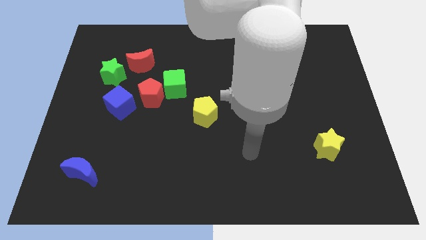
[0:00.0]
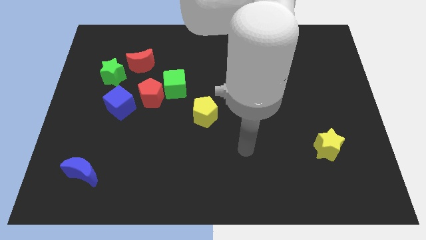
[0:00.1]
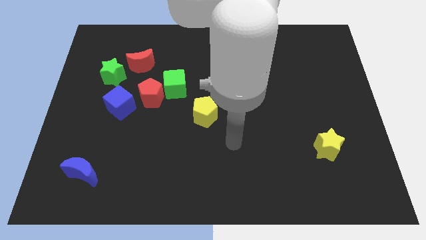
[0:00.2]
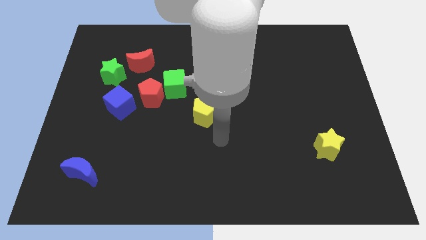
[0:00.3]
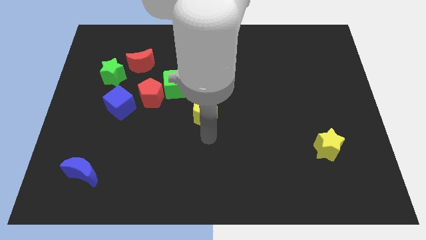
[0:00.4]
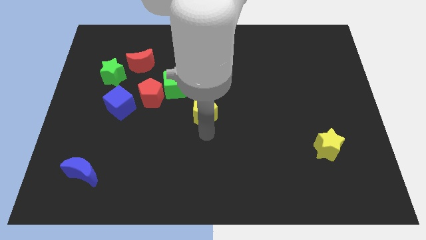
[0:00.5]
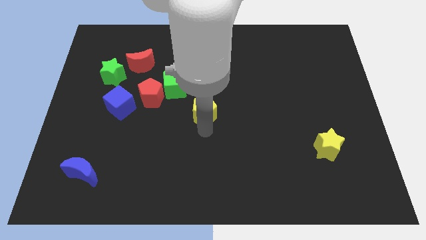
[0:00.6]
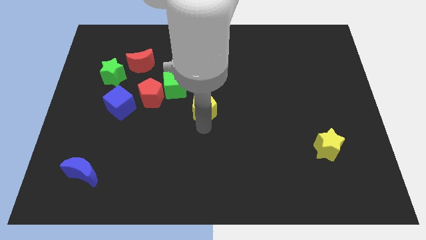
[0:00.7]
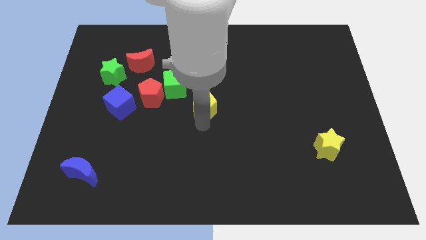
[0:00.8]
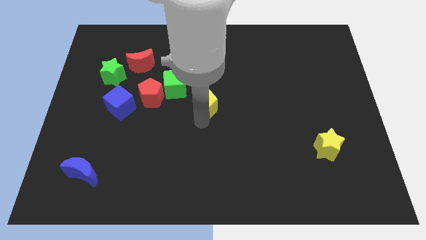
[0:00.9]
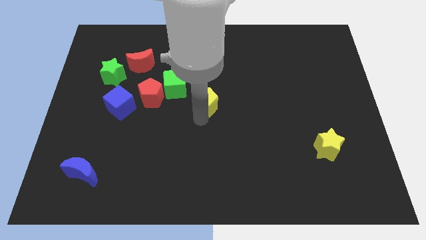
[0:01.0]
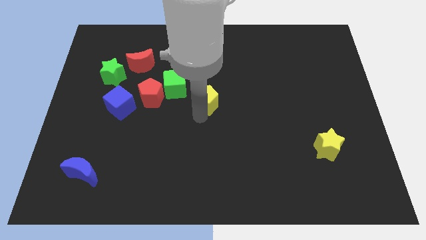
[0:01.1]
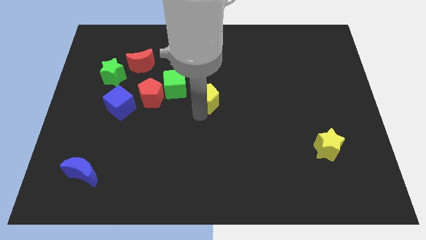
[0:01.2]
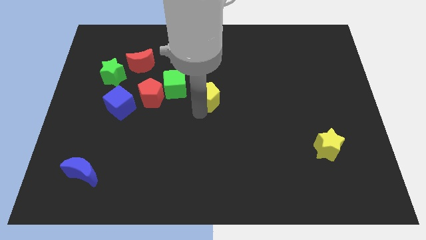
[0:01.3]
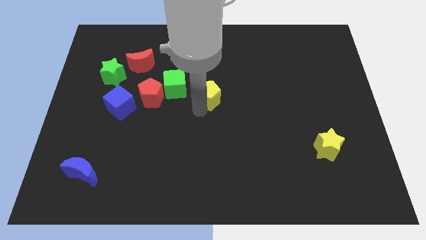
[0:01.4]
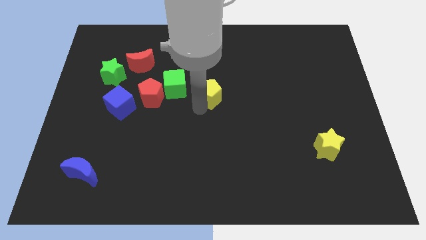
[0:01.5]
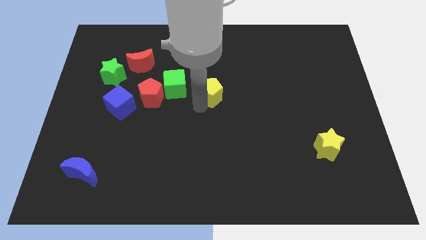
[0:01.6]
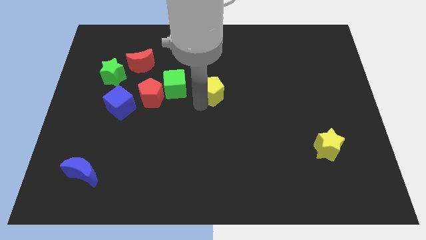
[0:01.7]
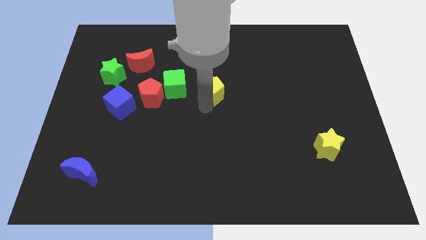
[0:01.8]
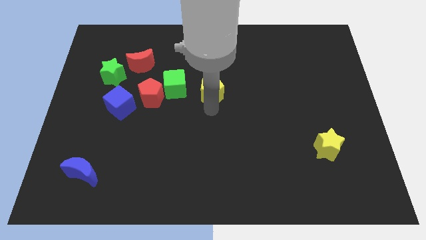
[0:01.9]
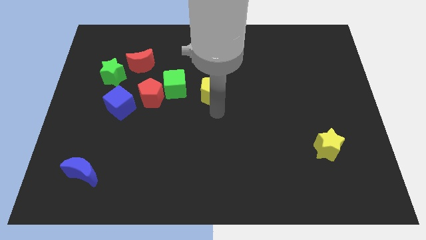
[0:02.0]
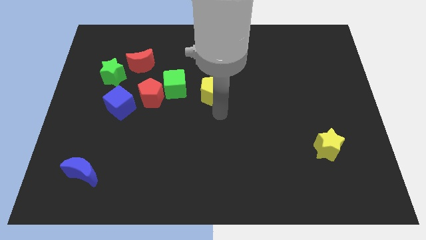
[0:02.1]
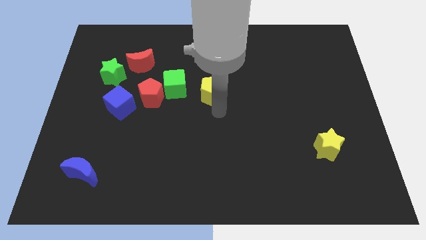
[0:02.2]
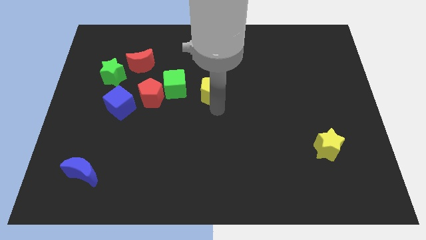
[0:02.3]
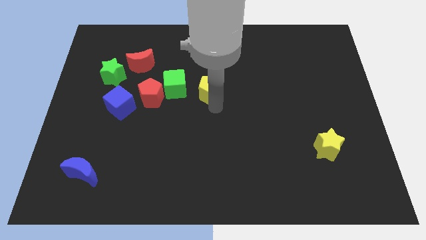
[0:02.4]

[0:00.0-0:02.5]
push the yellow pentagon slightly up

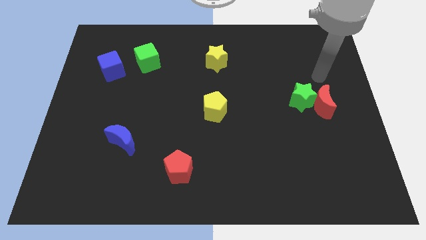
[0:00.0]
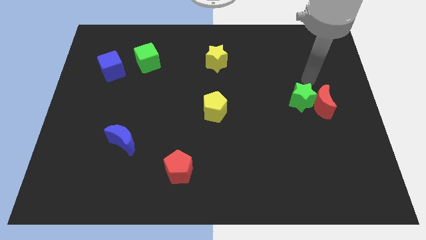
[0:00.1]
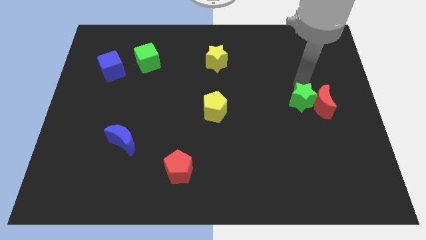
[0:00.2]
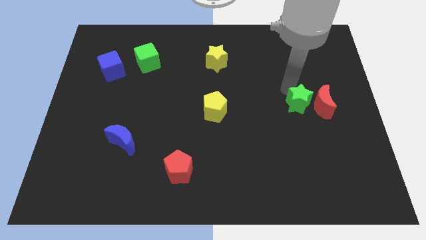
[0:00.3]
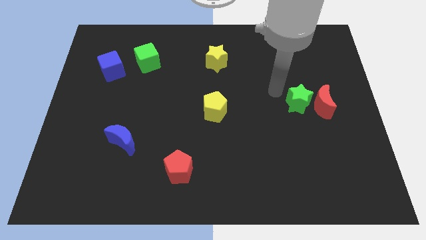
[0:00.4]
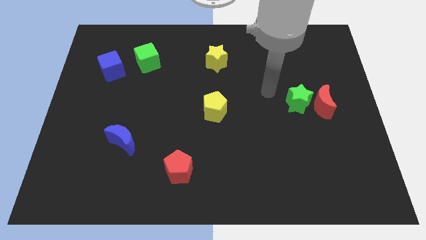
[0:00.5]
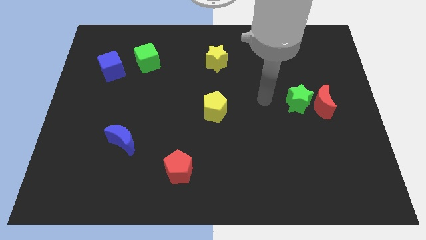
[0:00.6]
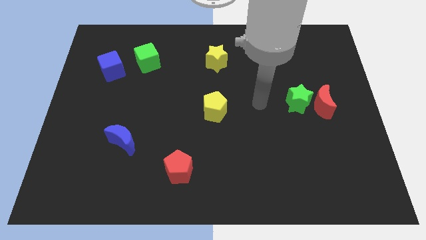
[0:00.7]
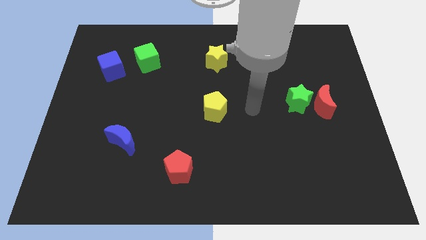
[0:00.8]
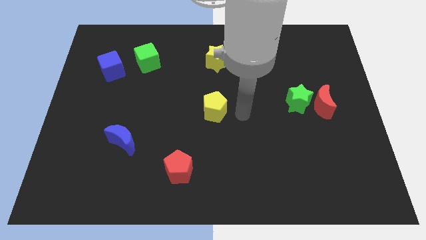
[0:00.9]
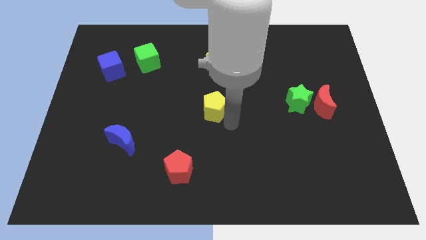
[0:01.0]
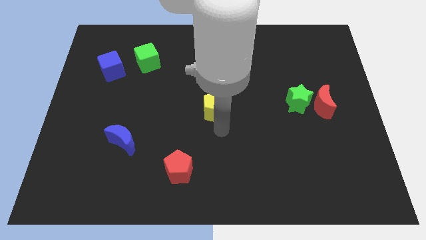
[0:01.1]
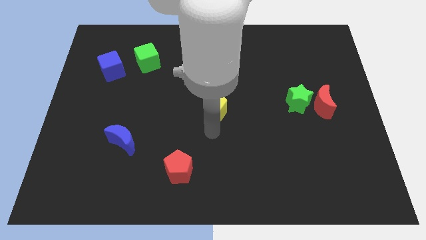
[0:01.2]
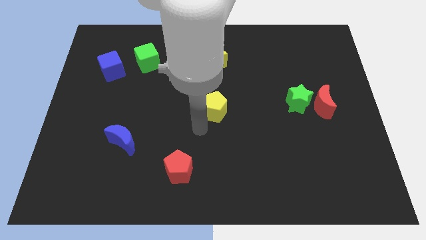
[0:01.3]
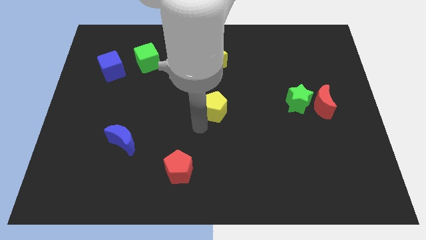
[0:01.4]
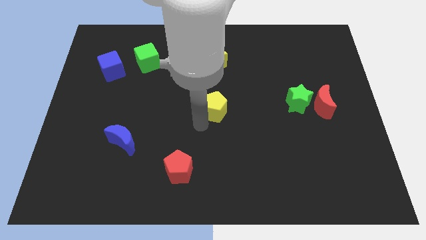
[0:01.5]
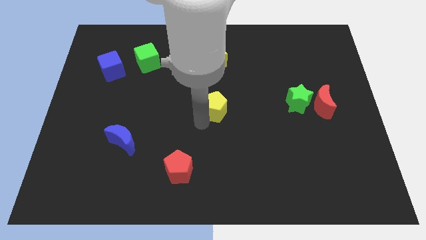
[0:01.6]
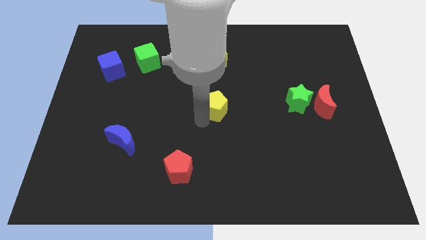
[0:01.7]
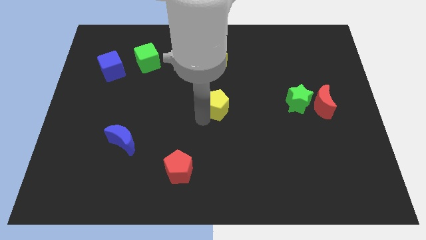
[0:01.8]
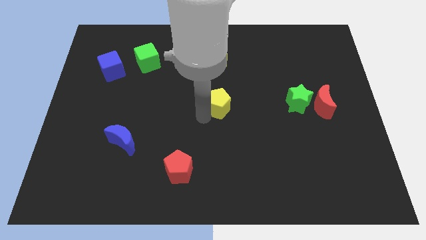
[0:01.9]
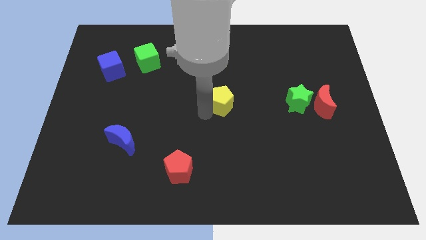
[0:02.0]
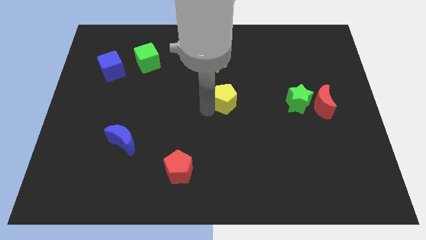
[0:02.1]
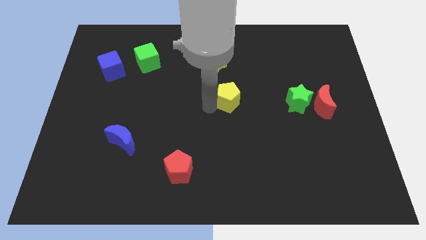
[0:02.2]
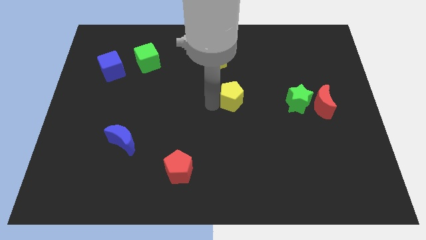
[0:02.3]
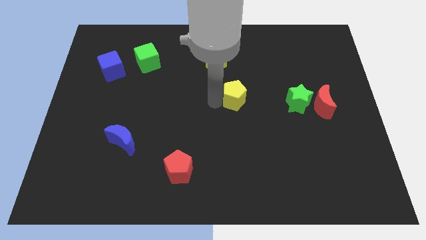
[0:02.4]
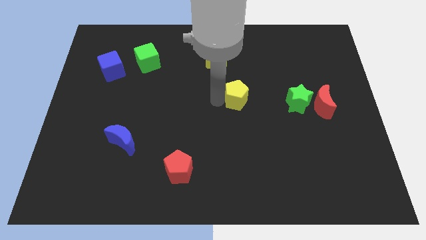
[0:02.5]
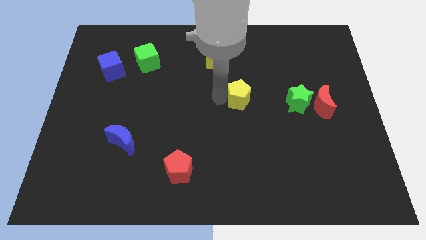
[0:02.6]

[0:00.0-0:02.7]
slightly move the yellow pentagon upwards and then to the right

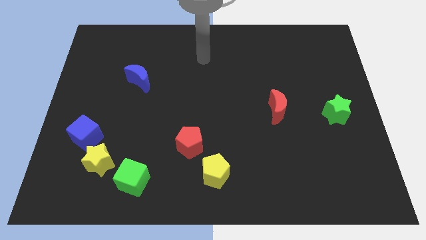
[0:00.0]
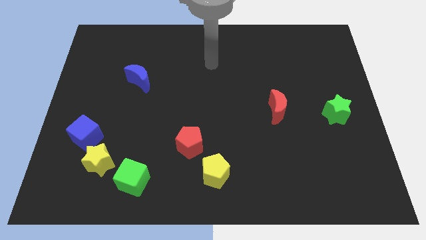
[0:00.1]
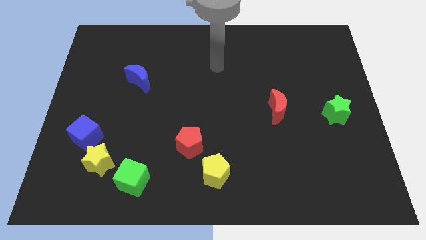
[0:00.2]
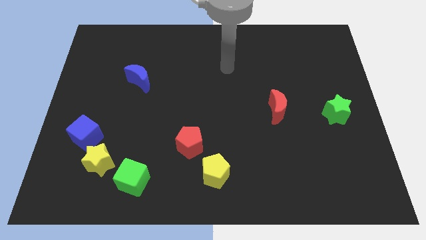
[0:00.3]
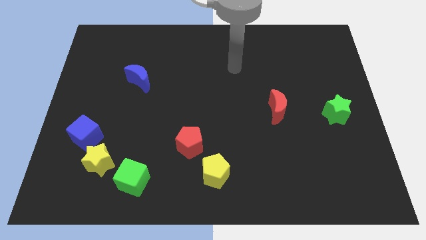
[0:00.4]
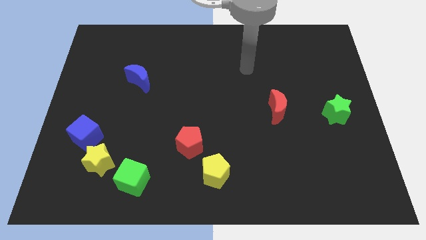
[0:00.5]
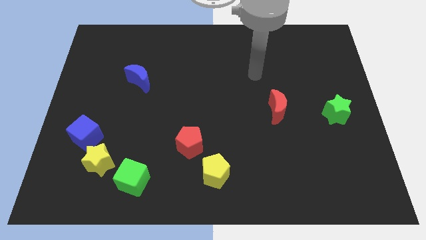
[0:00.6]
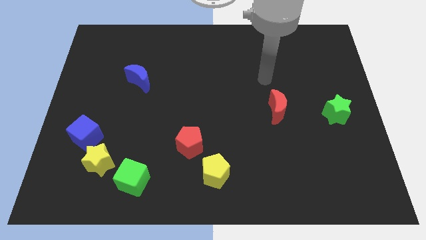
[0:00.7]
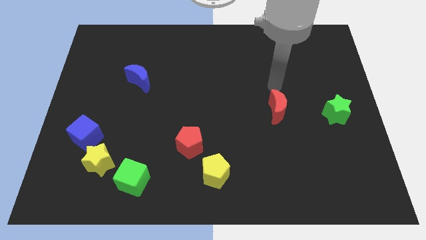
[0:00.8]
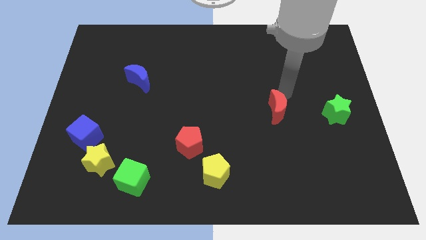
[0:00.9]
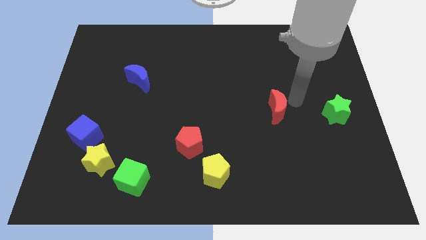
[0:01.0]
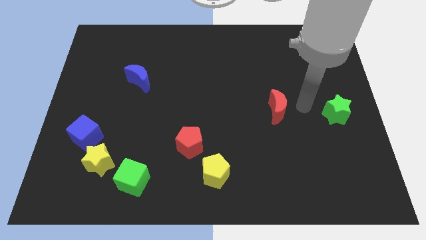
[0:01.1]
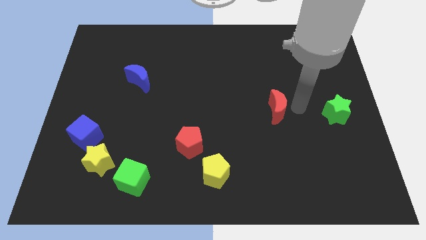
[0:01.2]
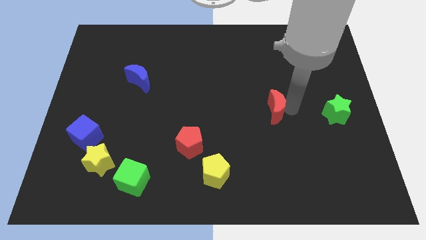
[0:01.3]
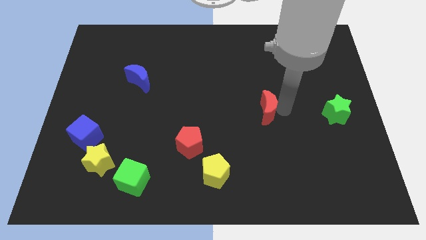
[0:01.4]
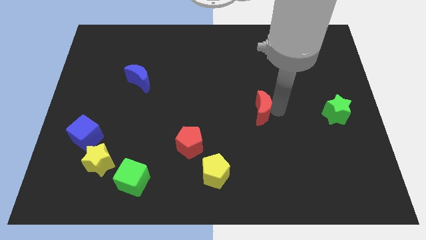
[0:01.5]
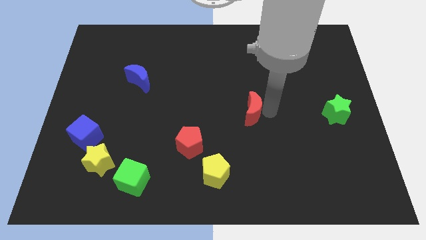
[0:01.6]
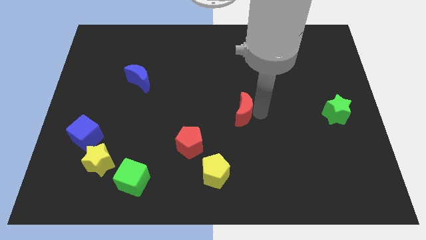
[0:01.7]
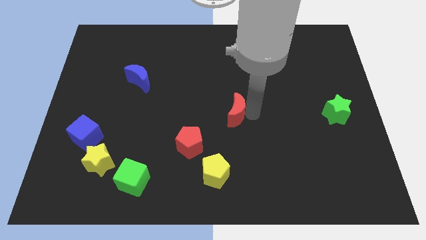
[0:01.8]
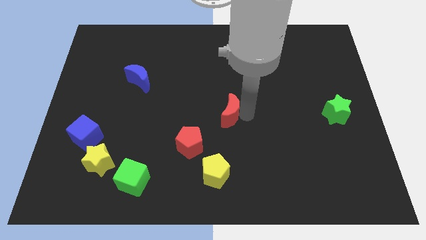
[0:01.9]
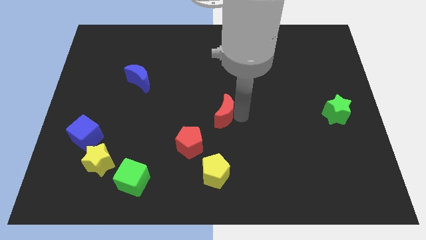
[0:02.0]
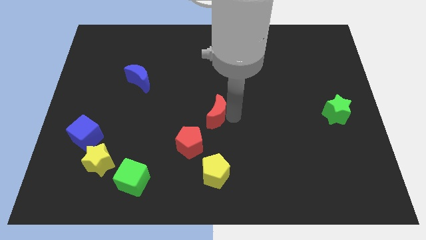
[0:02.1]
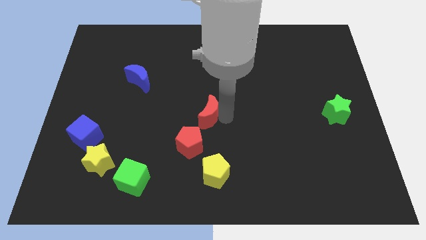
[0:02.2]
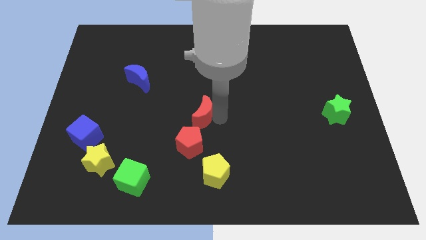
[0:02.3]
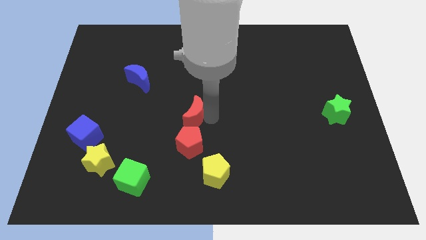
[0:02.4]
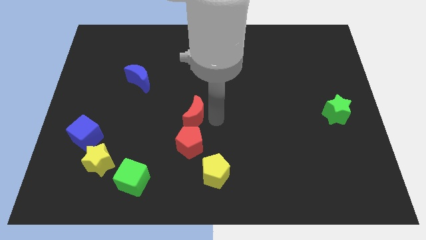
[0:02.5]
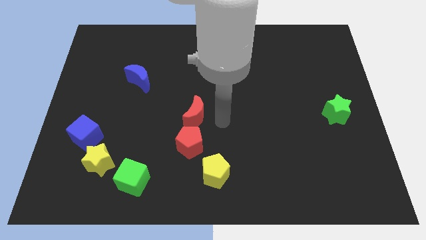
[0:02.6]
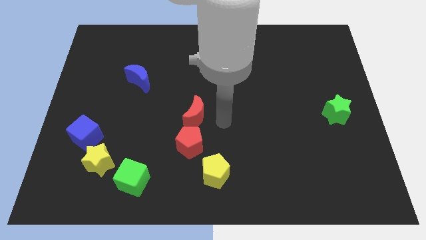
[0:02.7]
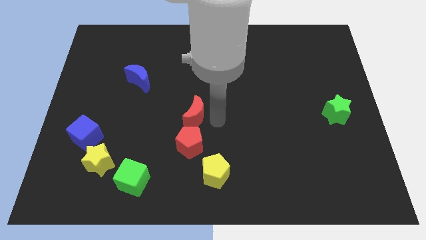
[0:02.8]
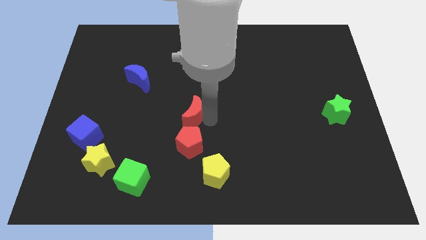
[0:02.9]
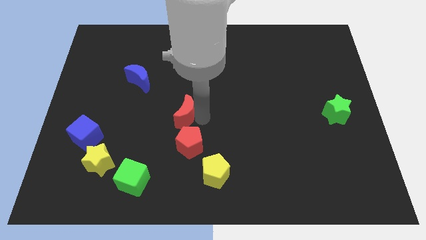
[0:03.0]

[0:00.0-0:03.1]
slide the red moon left
